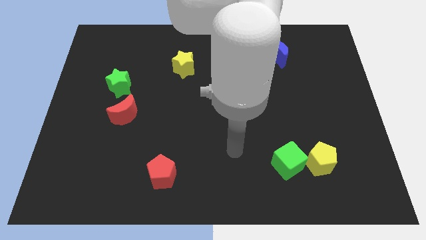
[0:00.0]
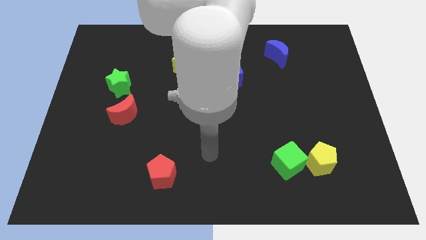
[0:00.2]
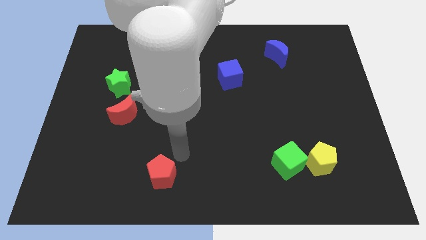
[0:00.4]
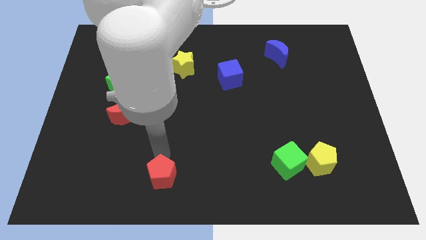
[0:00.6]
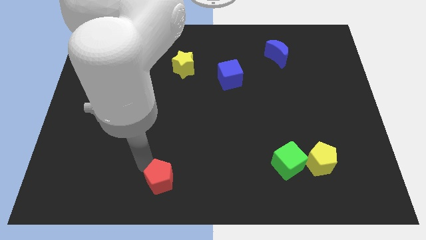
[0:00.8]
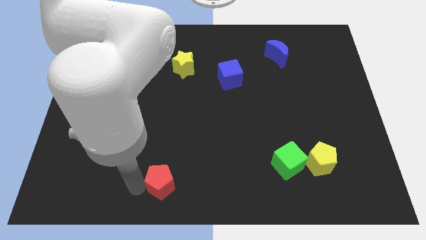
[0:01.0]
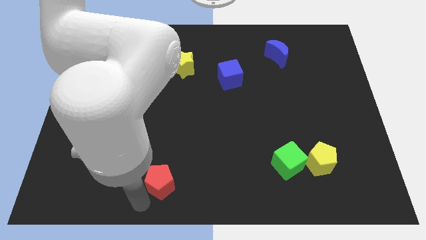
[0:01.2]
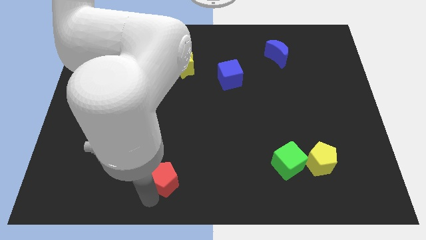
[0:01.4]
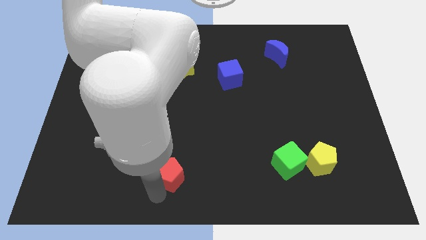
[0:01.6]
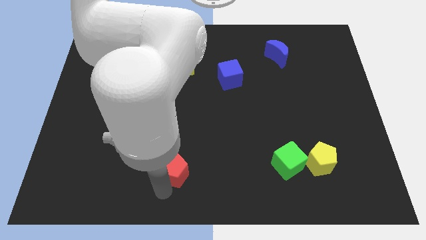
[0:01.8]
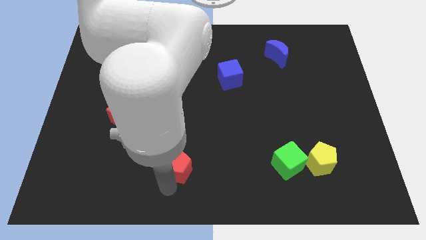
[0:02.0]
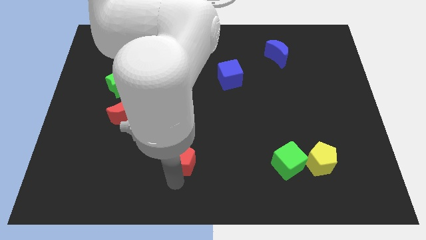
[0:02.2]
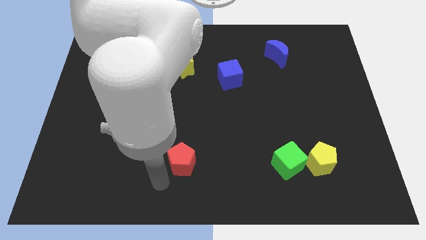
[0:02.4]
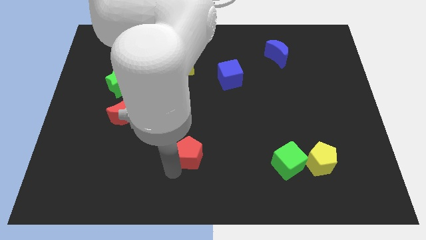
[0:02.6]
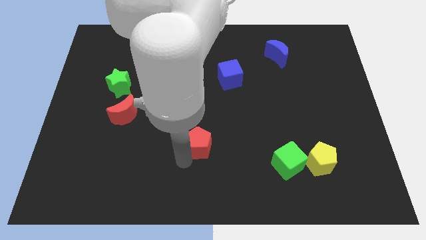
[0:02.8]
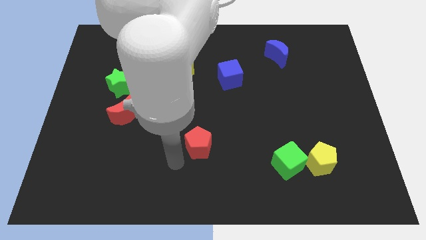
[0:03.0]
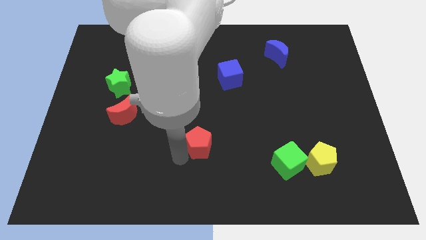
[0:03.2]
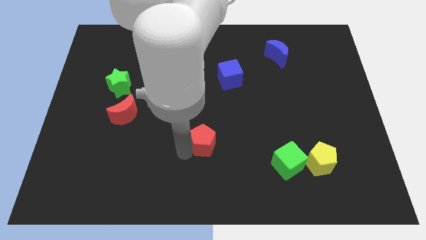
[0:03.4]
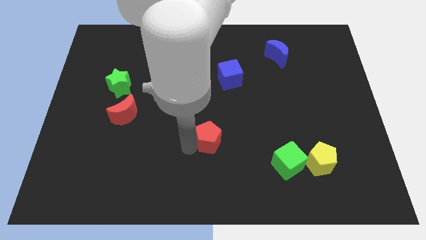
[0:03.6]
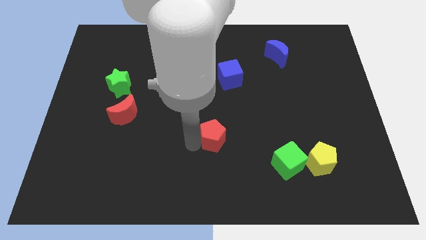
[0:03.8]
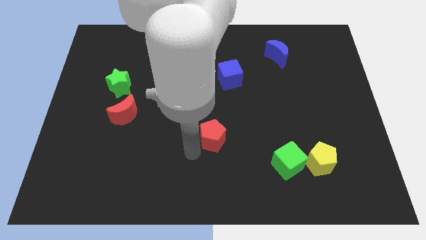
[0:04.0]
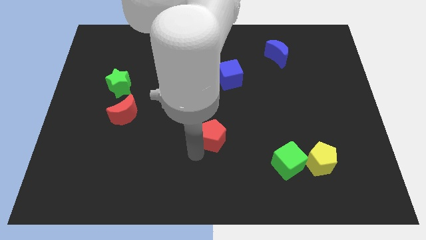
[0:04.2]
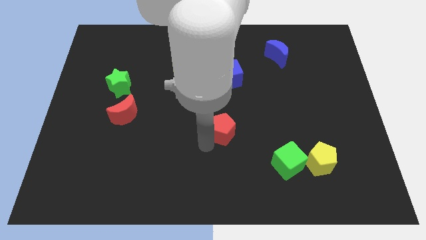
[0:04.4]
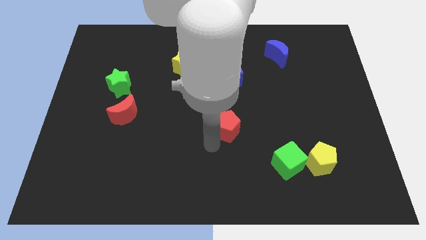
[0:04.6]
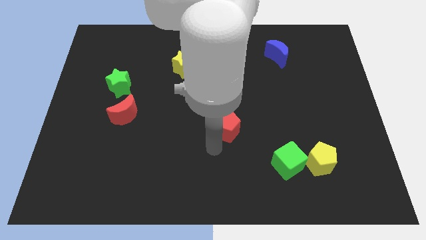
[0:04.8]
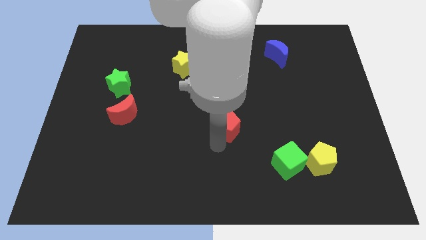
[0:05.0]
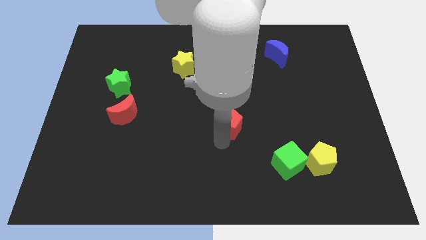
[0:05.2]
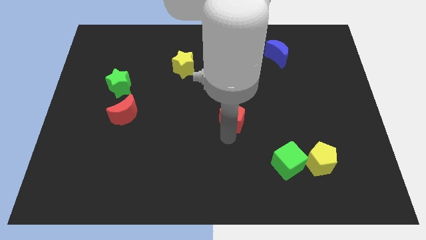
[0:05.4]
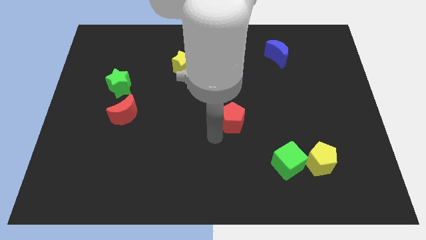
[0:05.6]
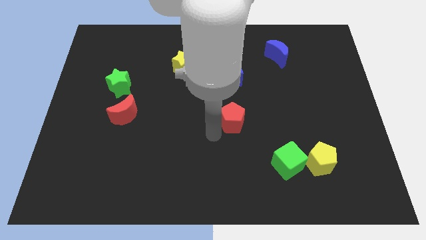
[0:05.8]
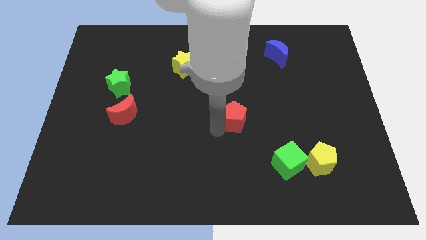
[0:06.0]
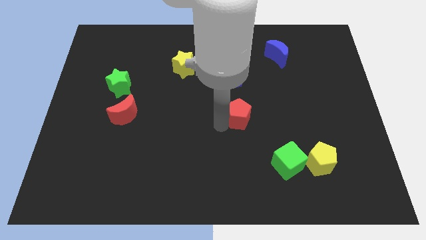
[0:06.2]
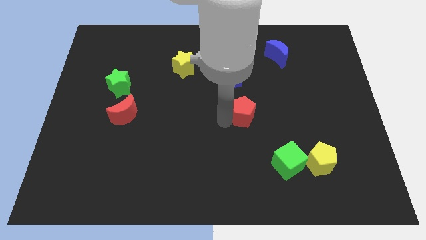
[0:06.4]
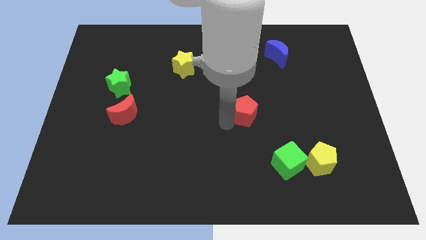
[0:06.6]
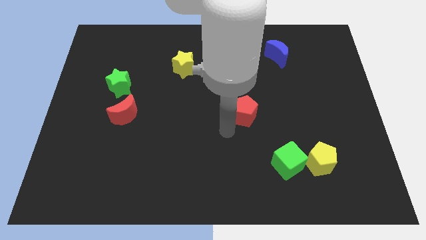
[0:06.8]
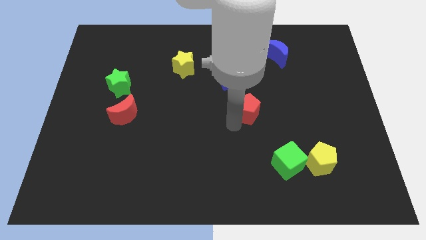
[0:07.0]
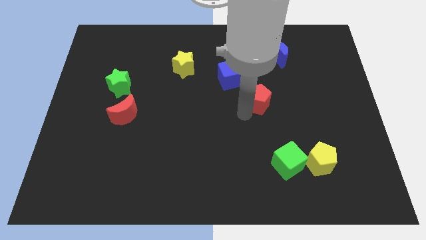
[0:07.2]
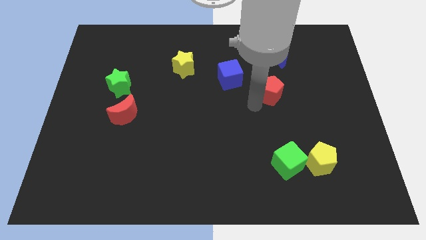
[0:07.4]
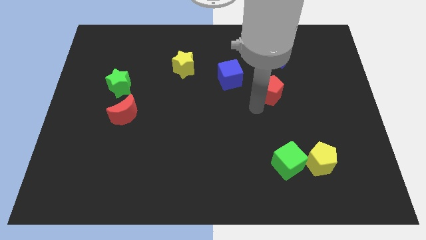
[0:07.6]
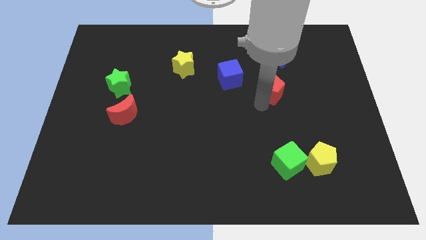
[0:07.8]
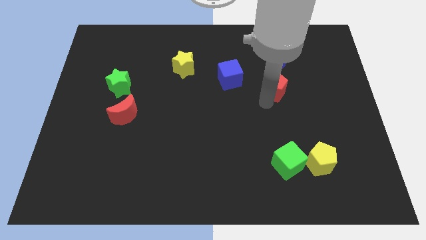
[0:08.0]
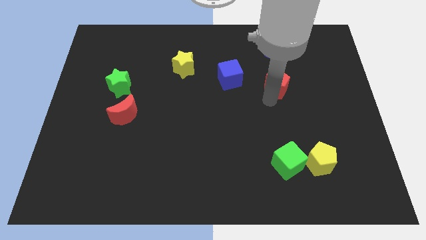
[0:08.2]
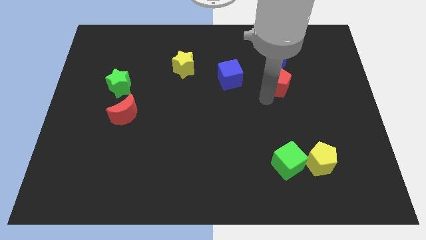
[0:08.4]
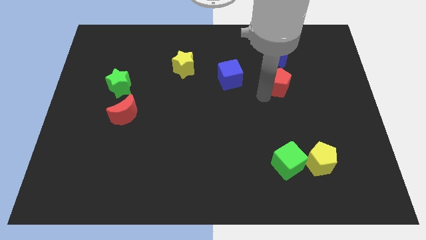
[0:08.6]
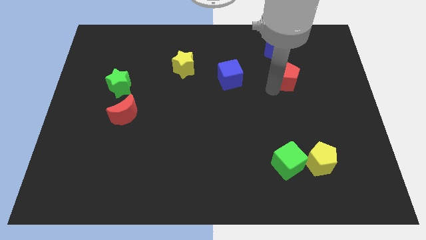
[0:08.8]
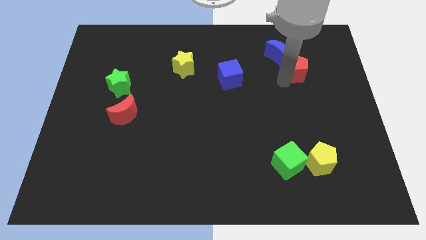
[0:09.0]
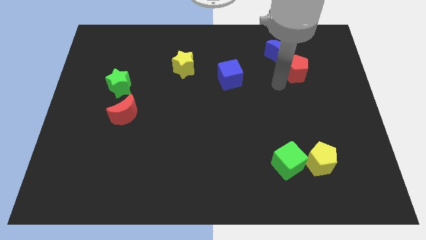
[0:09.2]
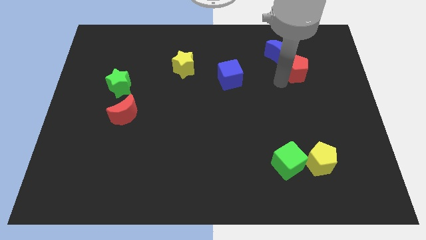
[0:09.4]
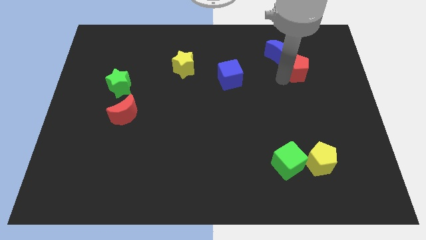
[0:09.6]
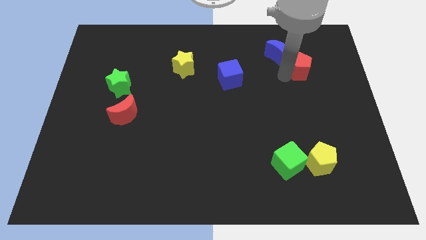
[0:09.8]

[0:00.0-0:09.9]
push the red pentagon right of the blue moon

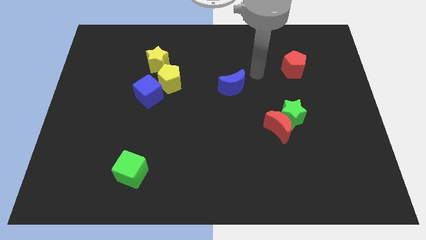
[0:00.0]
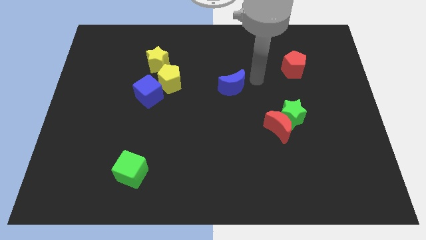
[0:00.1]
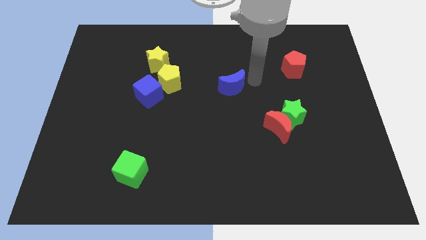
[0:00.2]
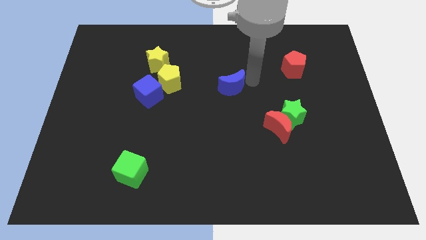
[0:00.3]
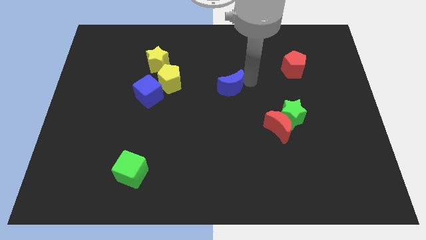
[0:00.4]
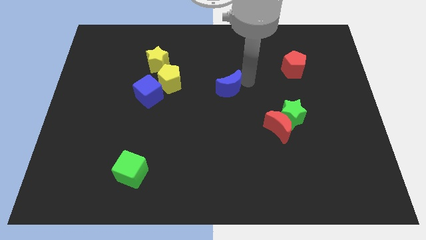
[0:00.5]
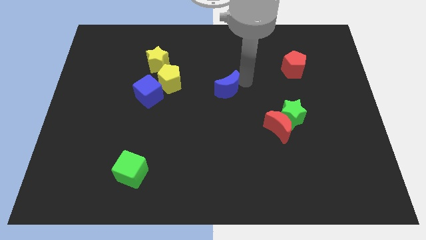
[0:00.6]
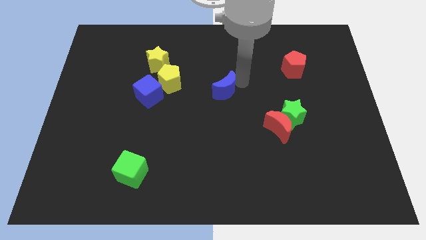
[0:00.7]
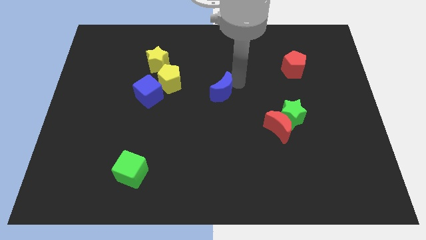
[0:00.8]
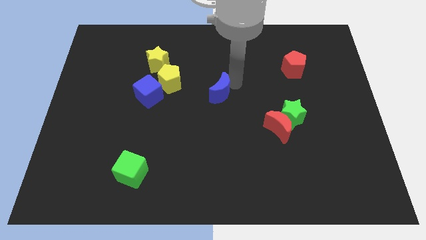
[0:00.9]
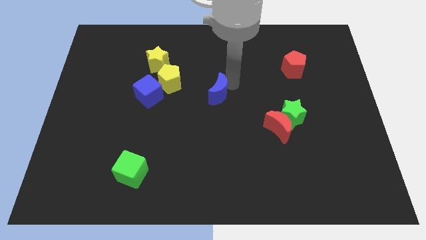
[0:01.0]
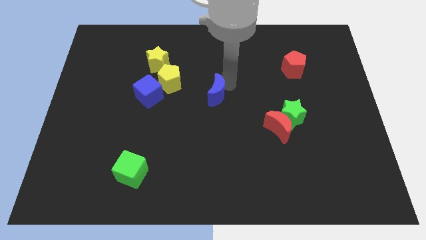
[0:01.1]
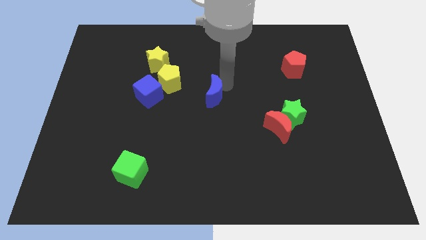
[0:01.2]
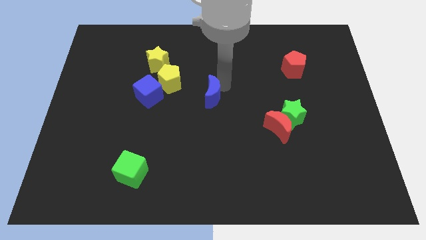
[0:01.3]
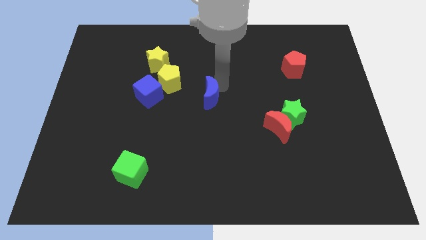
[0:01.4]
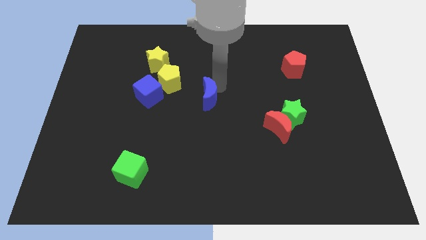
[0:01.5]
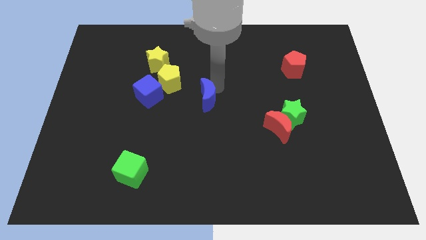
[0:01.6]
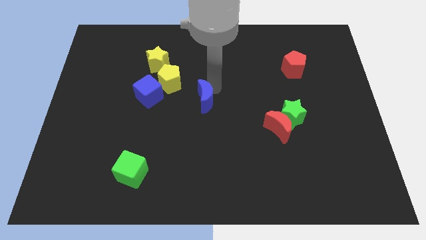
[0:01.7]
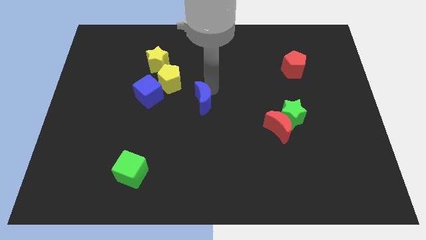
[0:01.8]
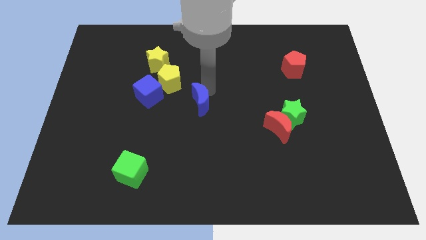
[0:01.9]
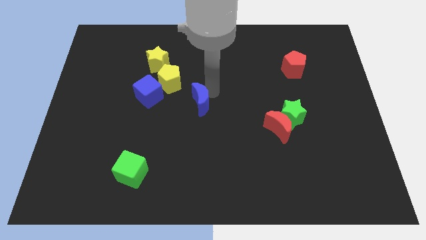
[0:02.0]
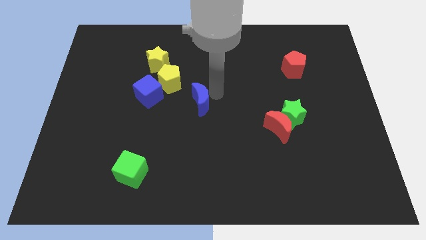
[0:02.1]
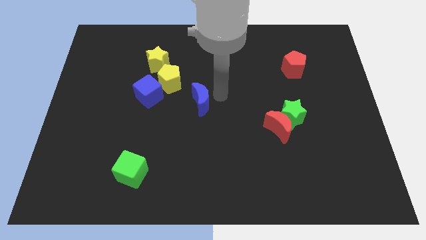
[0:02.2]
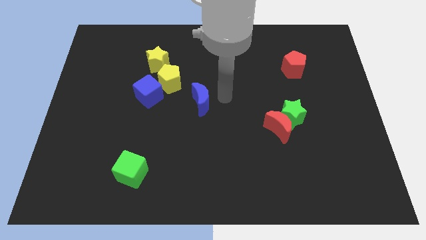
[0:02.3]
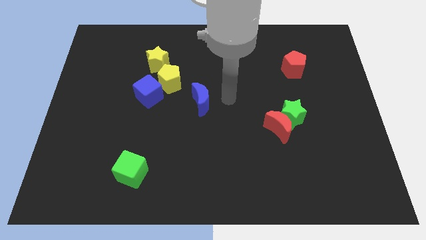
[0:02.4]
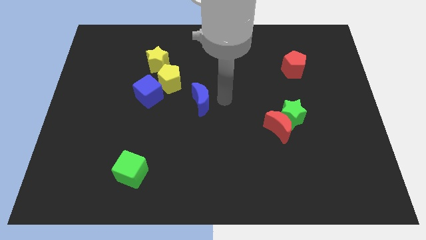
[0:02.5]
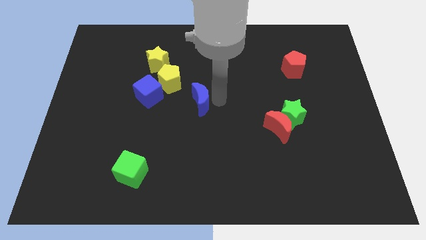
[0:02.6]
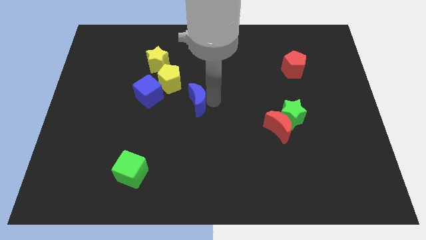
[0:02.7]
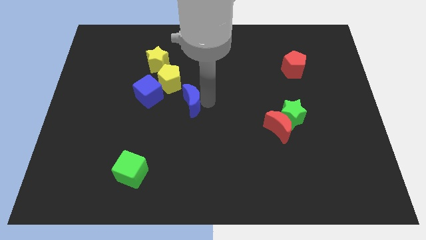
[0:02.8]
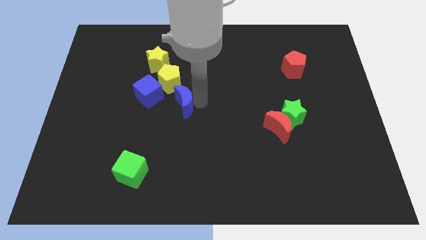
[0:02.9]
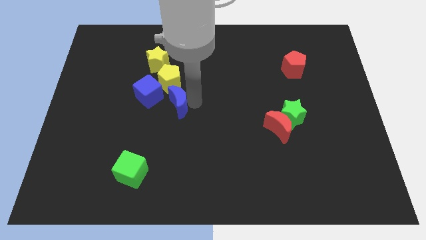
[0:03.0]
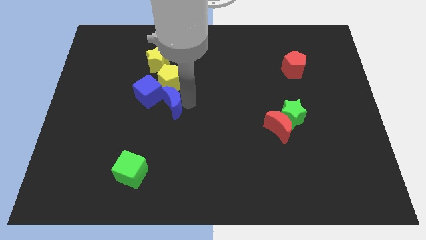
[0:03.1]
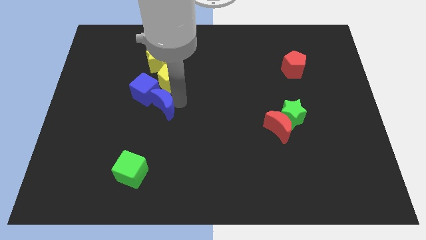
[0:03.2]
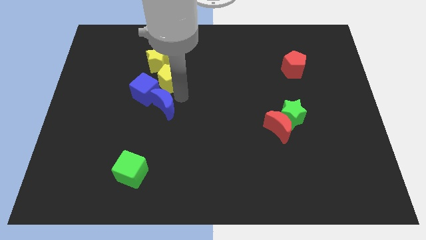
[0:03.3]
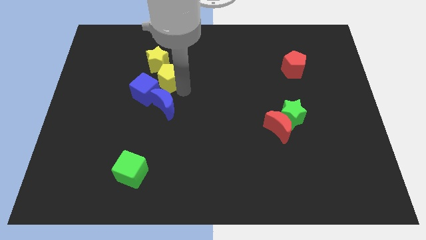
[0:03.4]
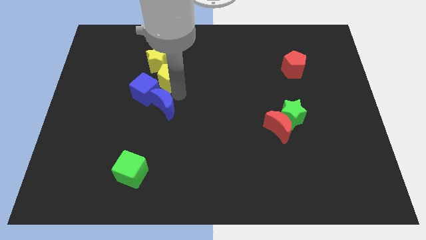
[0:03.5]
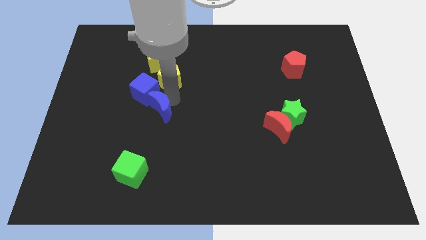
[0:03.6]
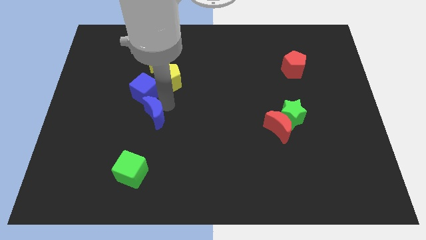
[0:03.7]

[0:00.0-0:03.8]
slide the blue moon above the green cube
